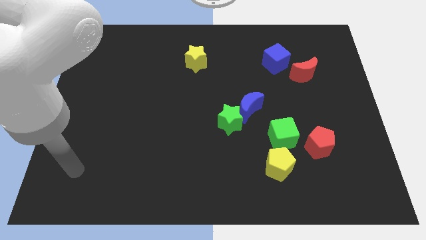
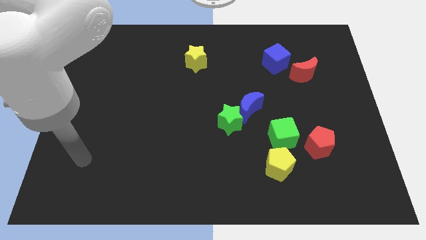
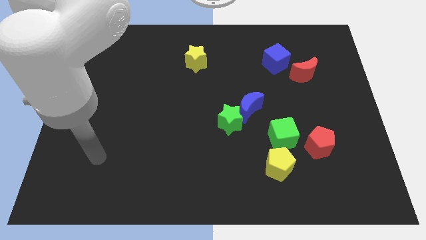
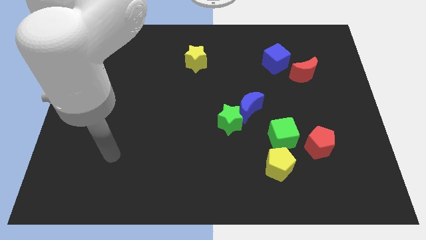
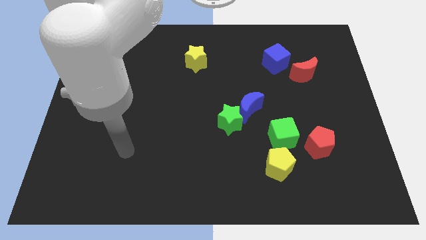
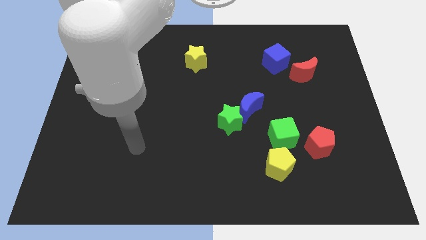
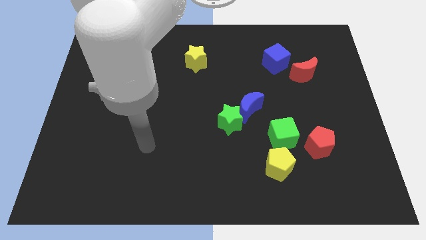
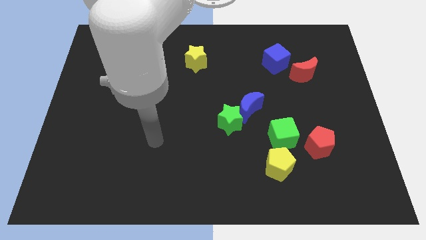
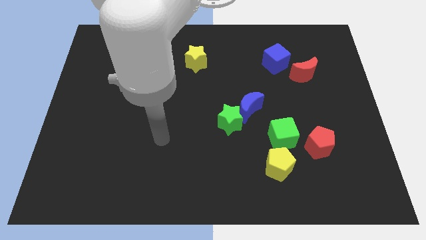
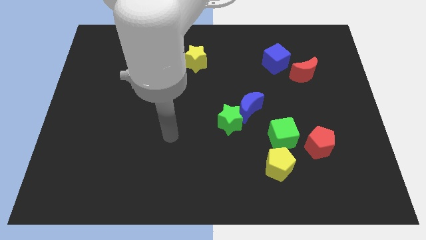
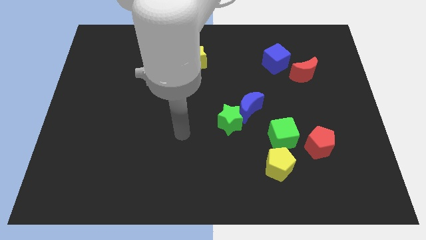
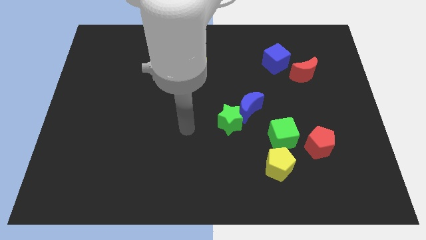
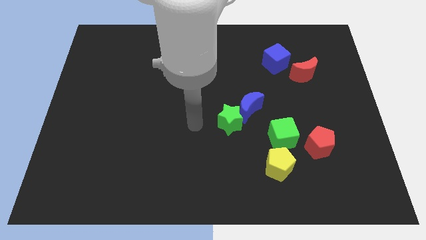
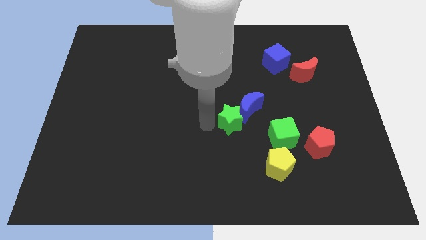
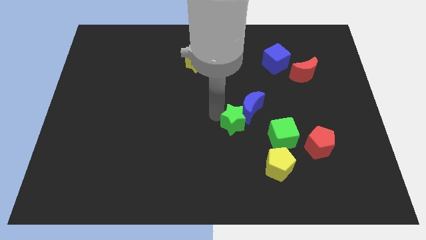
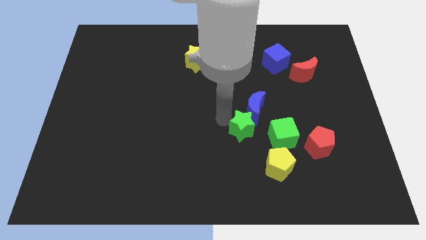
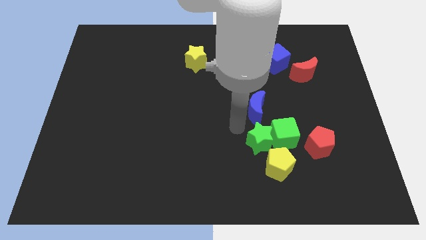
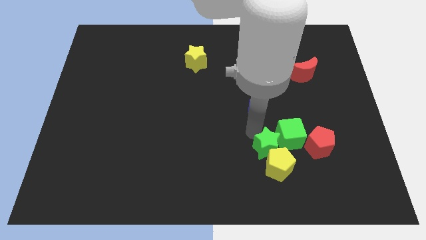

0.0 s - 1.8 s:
separate the blue moon from the green star

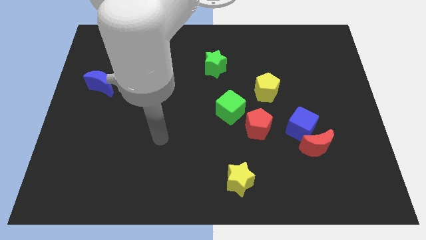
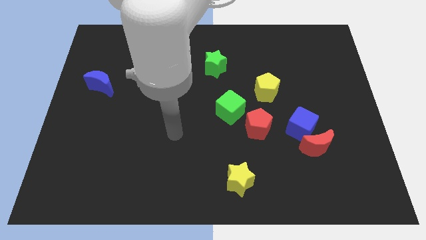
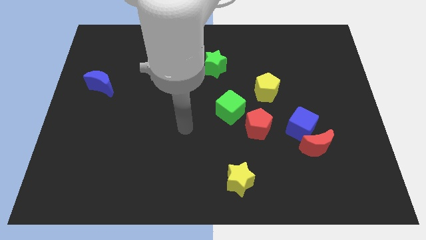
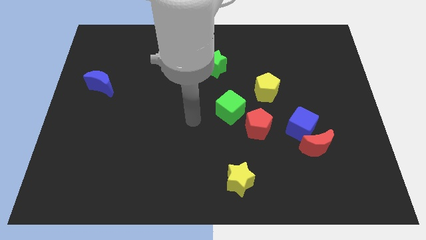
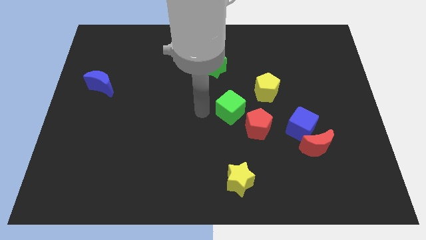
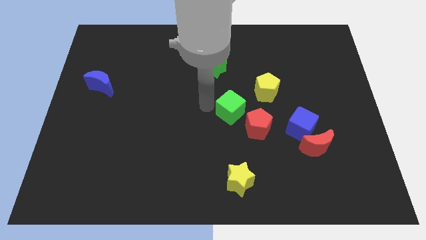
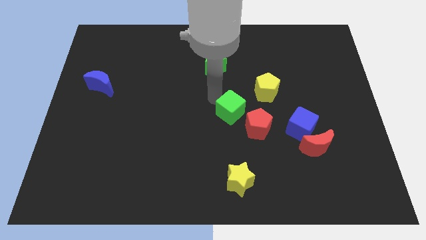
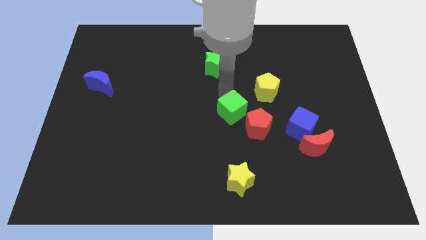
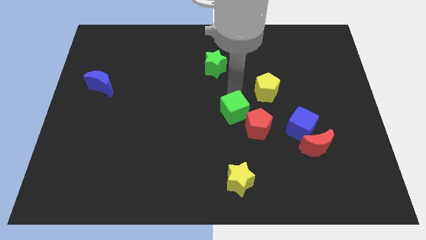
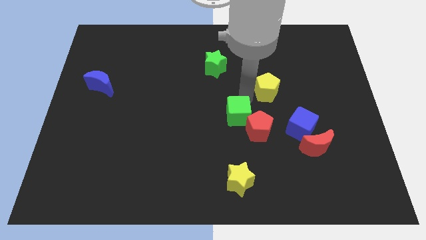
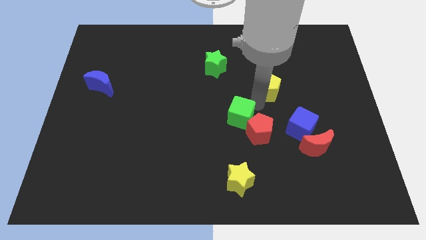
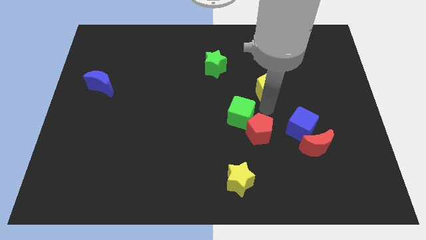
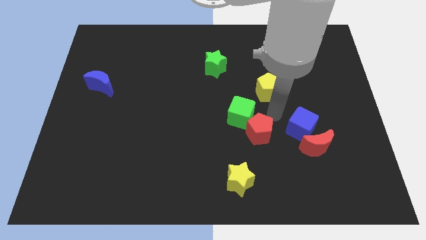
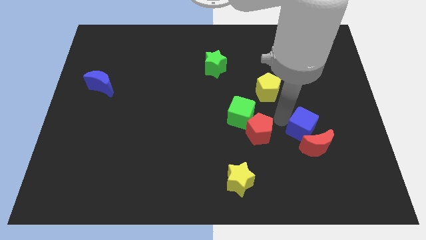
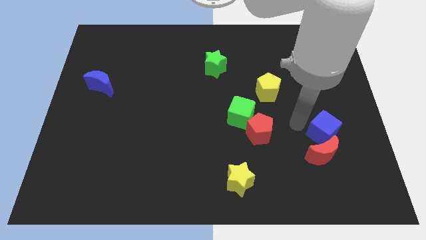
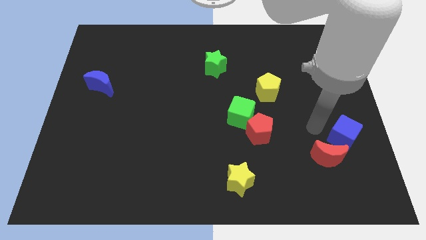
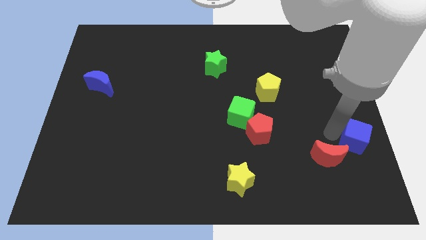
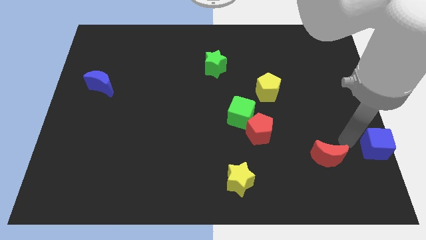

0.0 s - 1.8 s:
move the red moon away from the blue cube

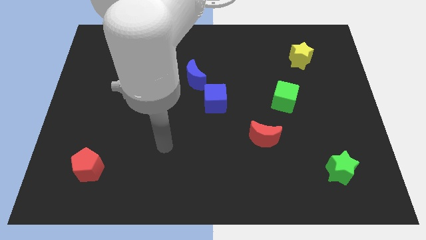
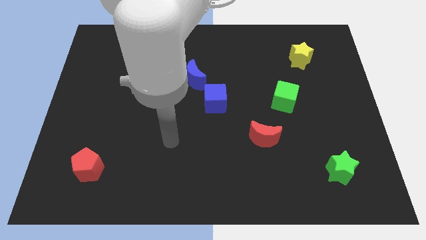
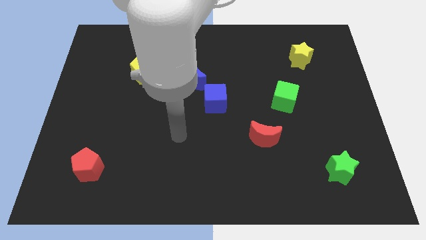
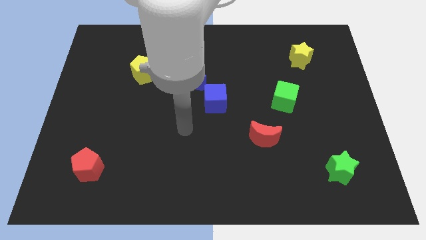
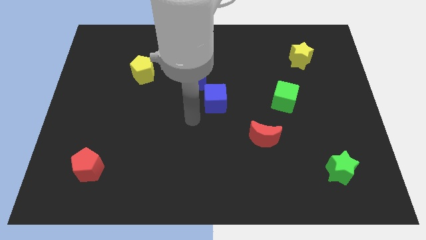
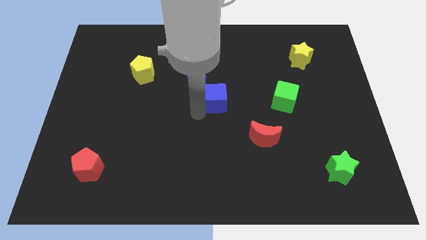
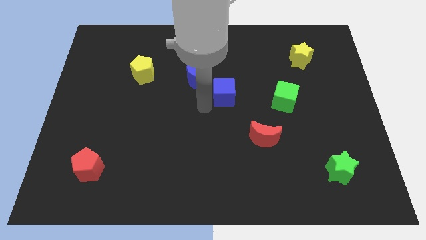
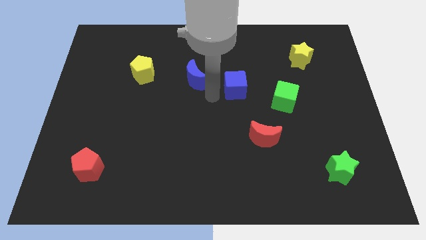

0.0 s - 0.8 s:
separate the blue moon from the blue cube

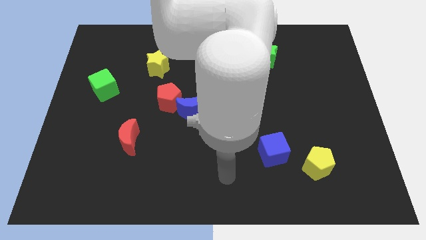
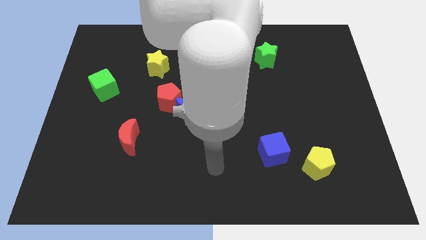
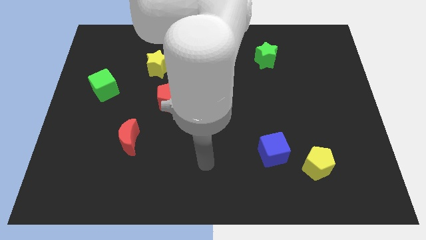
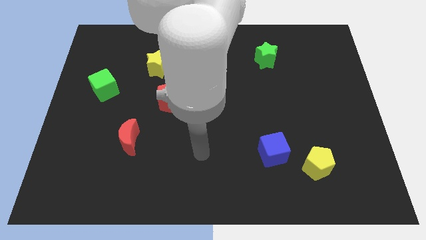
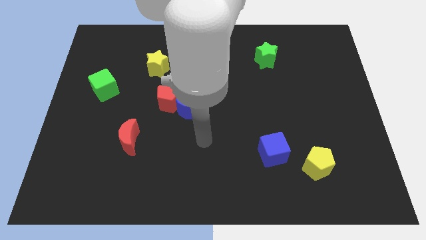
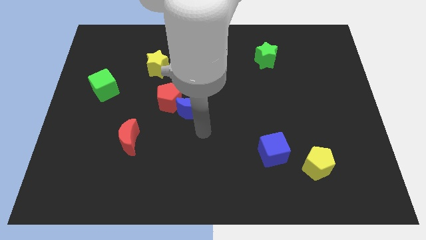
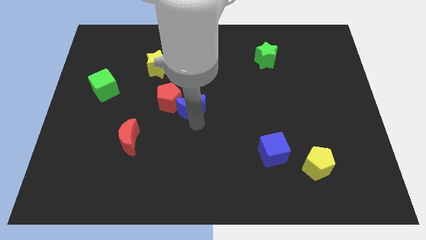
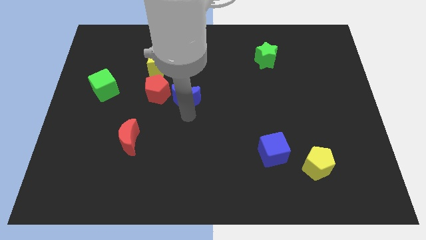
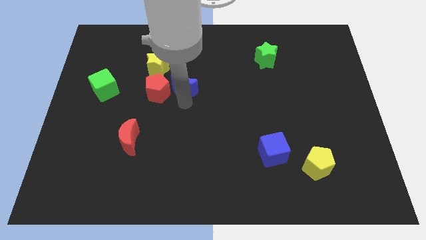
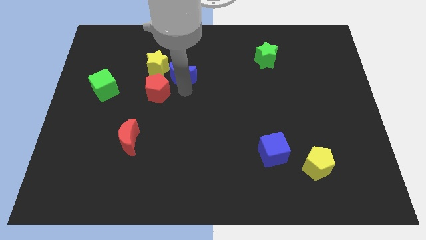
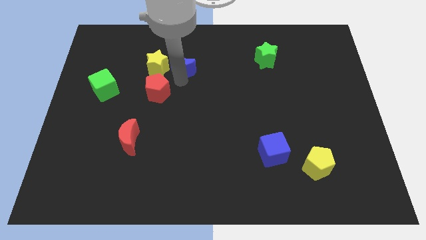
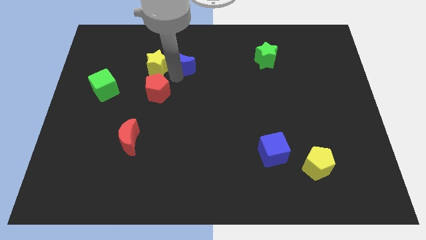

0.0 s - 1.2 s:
pull the red pentagon apart from the blue moon

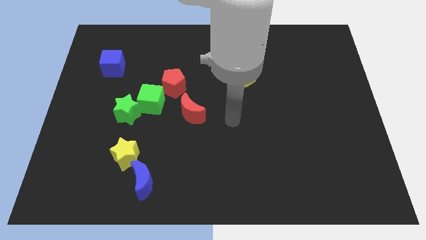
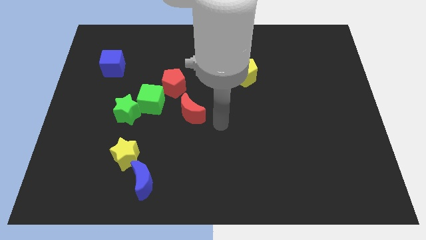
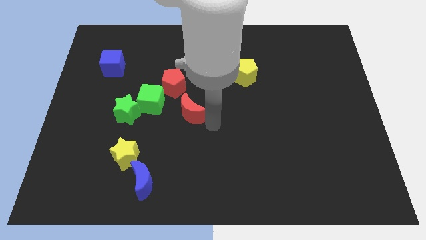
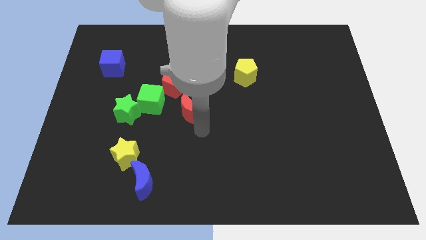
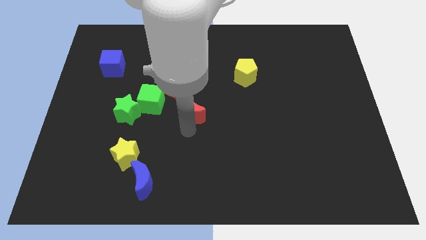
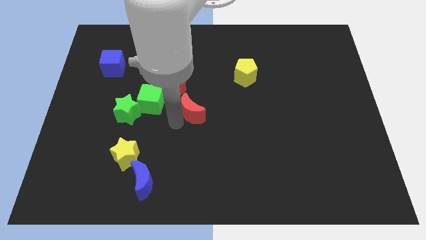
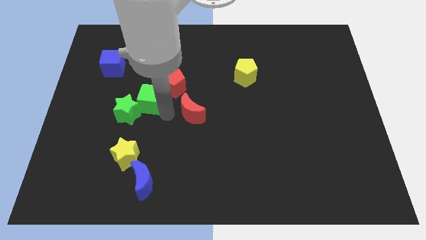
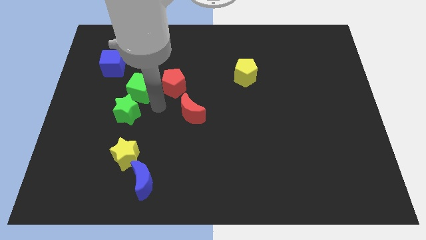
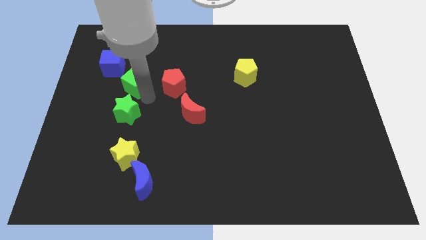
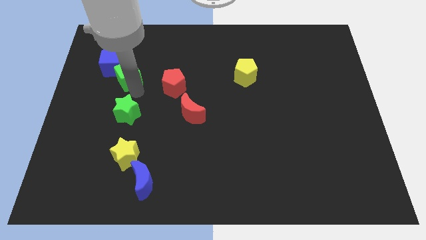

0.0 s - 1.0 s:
move the green star away from the green cube

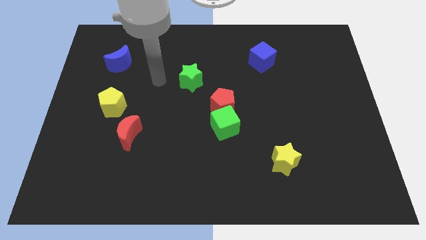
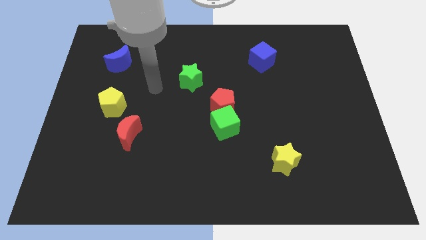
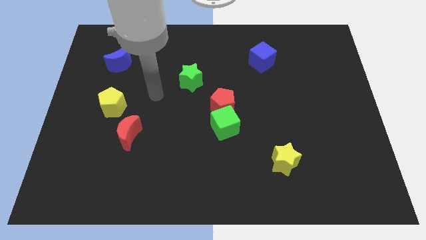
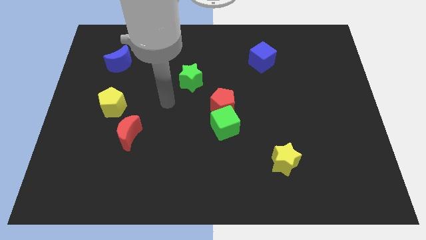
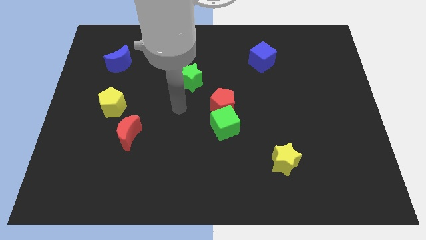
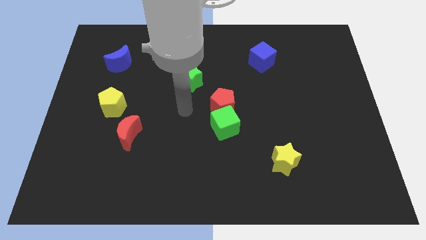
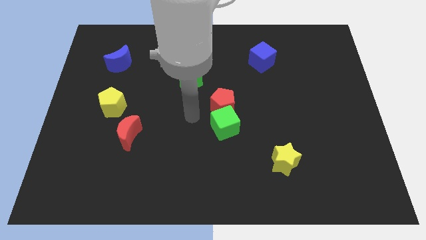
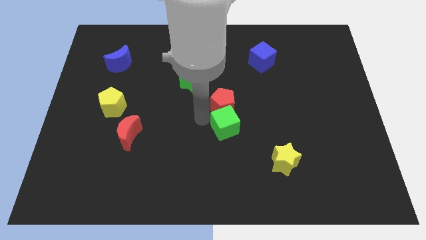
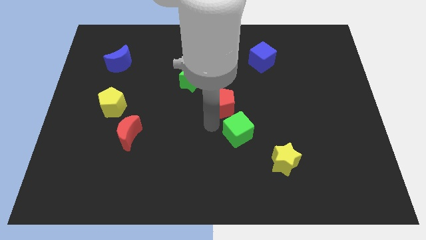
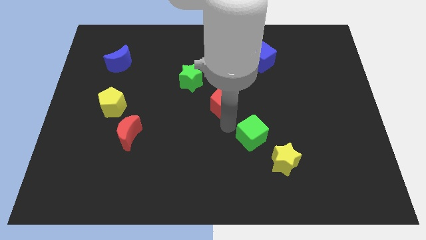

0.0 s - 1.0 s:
move the red pentagon away from the green cube

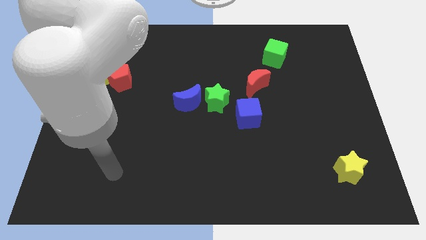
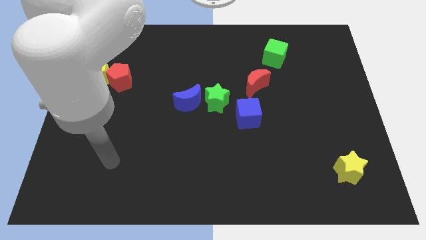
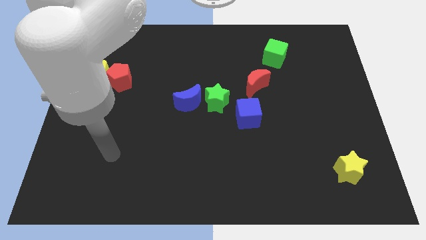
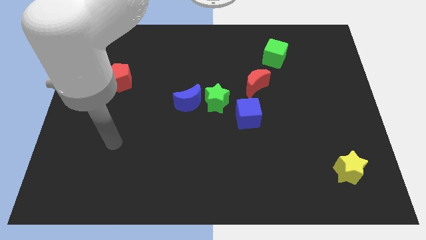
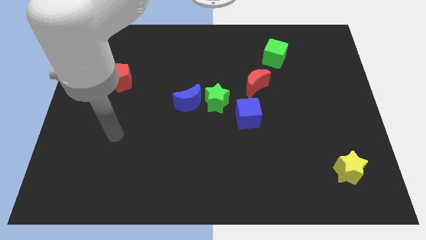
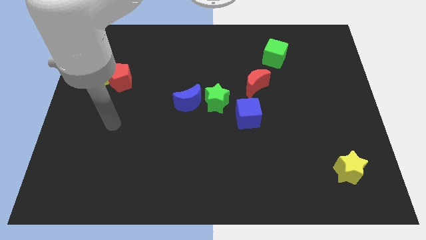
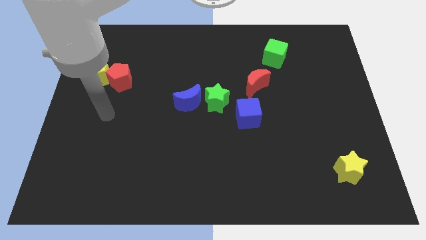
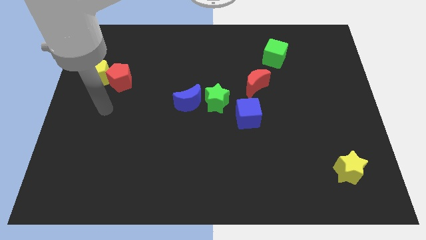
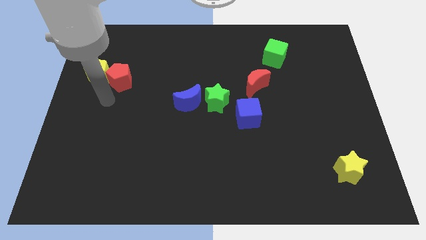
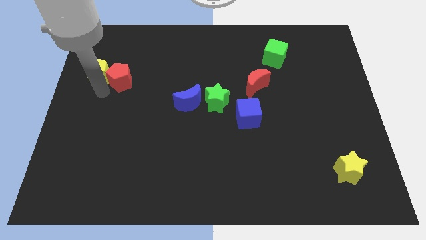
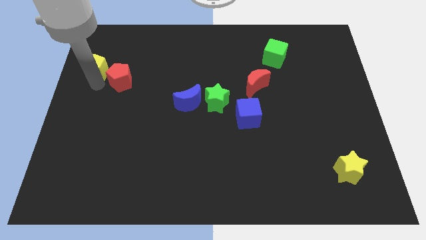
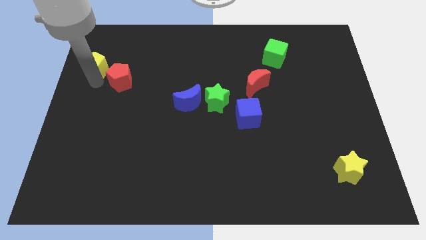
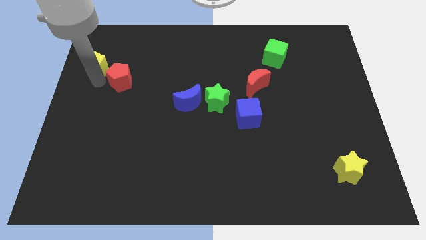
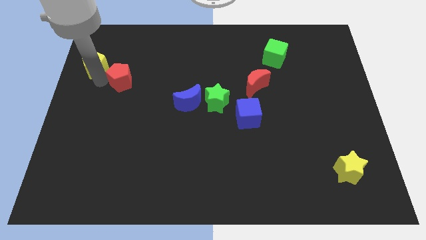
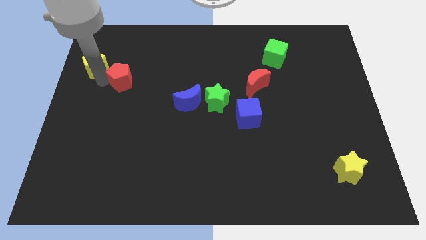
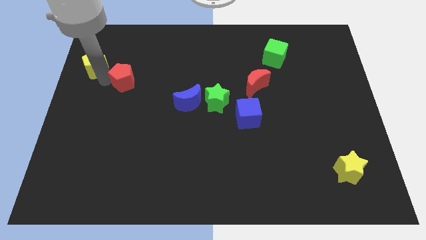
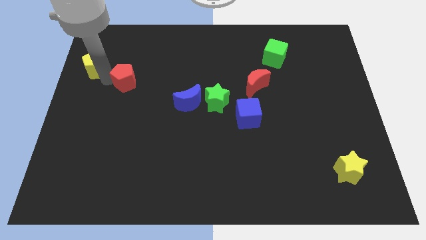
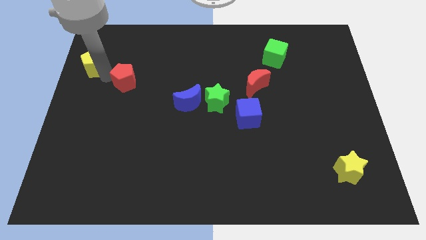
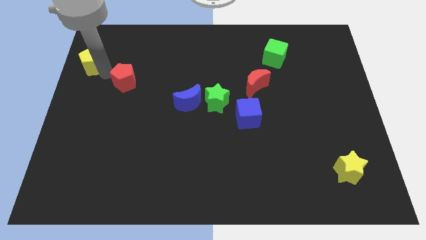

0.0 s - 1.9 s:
pull the red pentagon apart from the yellow pentagon
